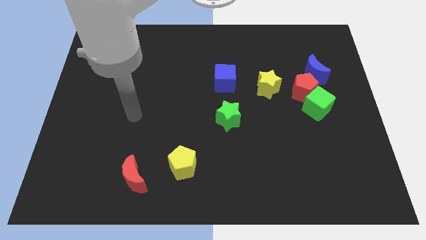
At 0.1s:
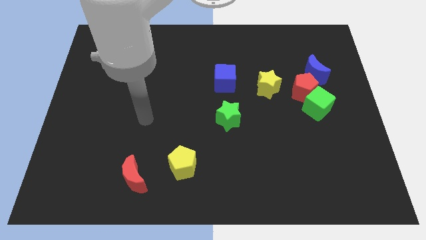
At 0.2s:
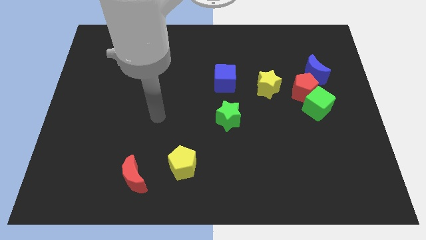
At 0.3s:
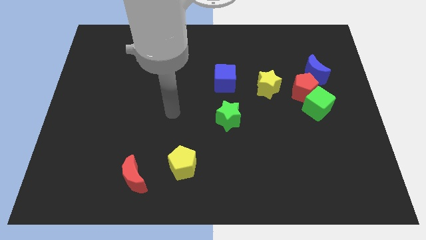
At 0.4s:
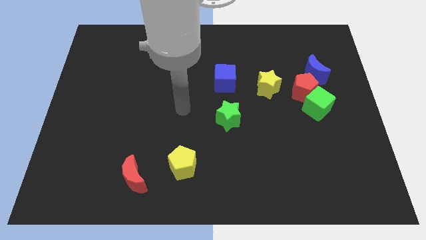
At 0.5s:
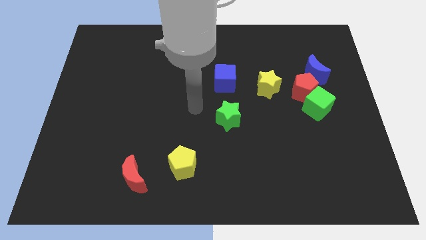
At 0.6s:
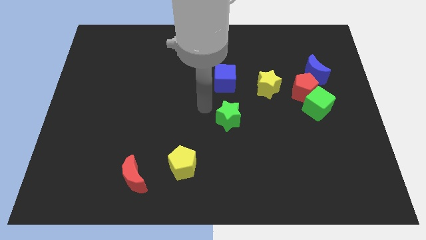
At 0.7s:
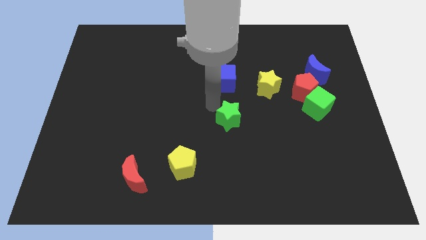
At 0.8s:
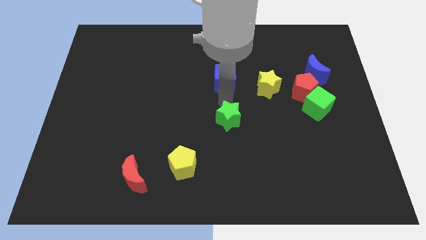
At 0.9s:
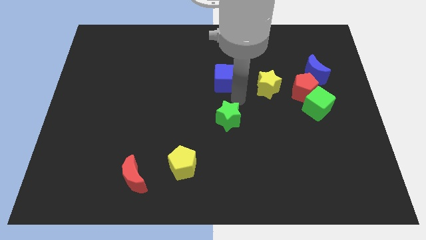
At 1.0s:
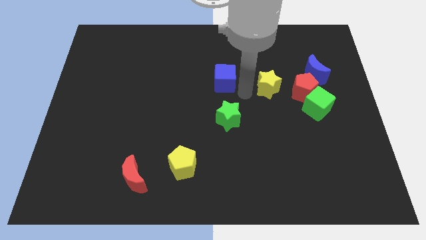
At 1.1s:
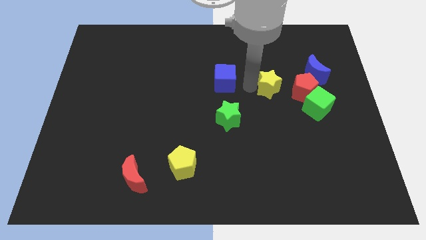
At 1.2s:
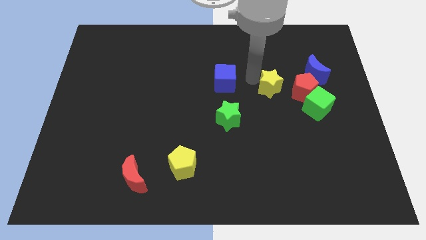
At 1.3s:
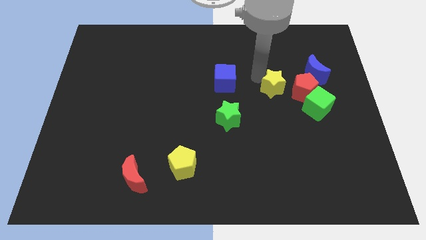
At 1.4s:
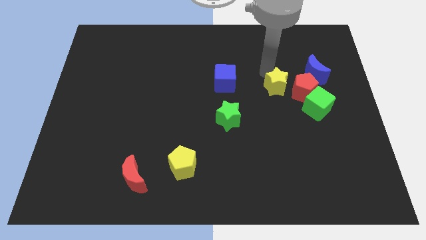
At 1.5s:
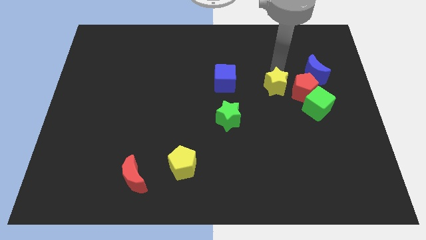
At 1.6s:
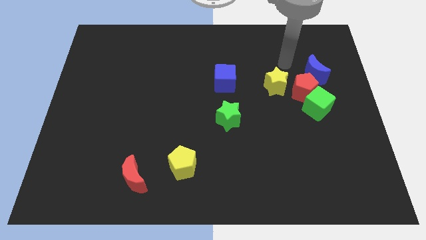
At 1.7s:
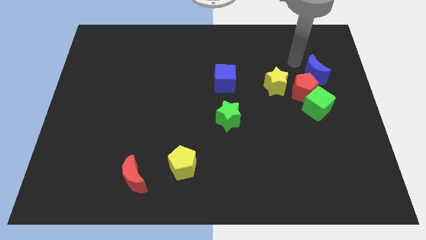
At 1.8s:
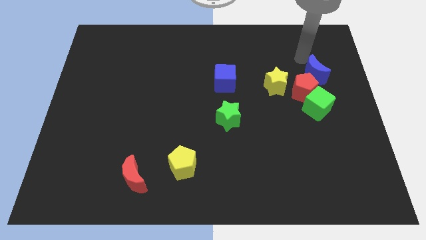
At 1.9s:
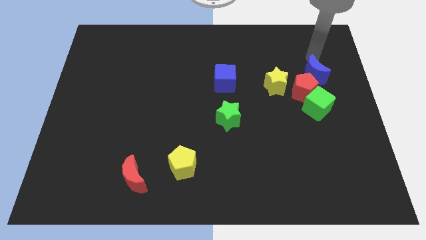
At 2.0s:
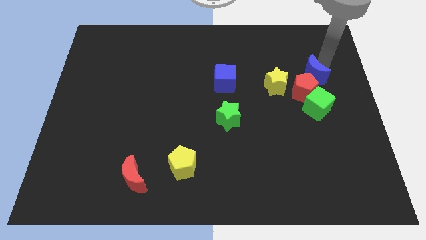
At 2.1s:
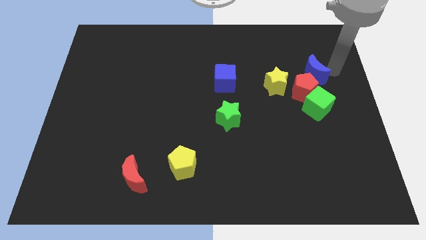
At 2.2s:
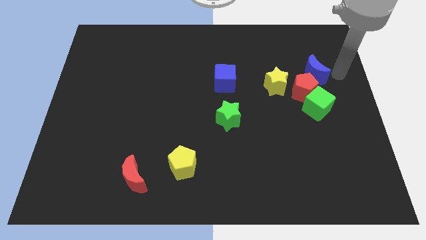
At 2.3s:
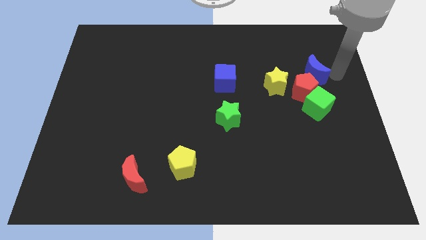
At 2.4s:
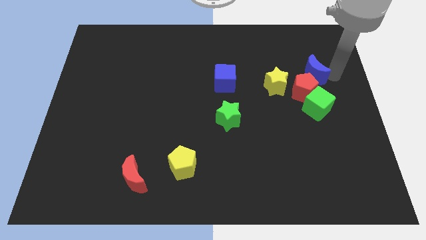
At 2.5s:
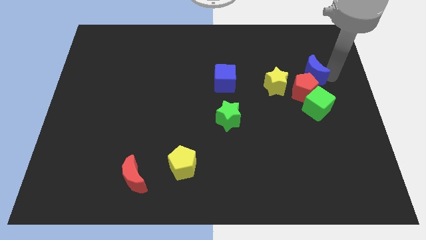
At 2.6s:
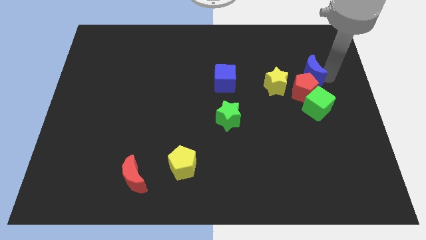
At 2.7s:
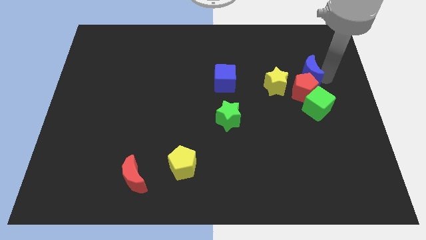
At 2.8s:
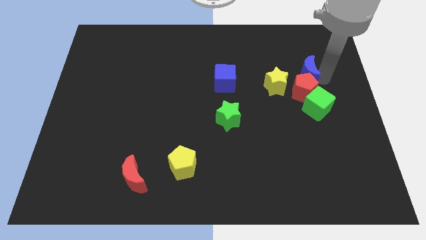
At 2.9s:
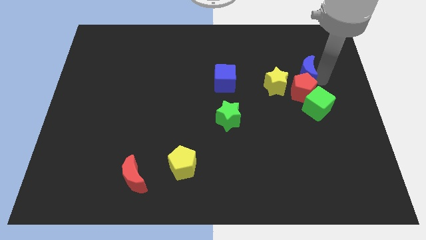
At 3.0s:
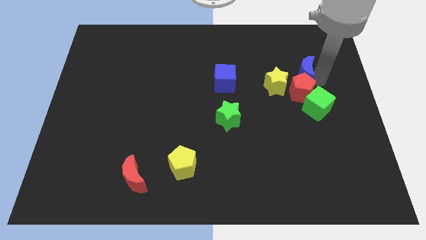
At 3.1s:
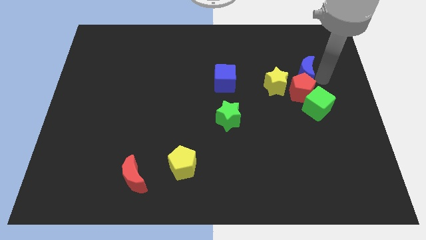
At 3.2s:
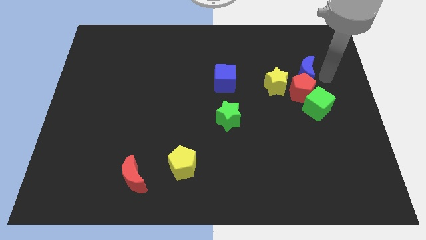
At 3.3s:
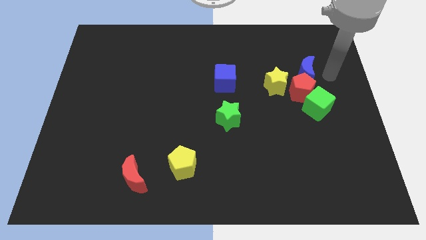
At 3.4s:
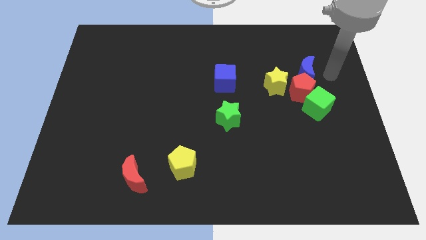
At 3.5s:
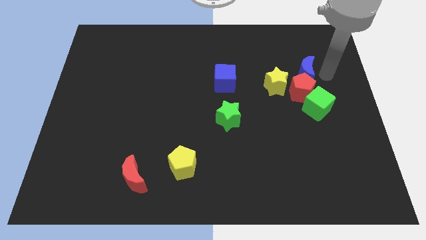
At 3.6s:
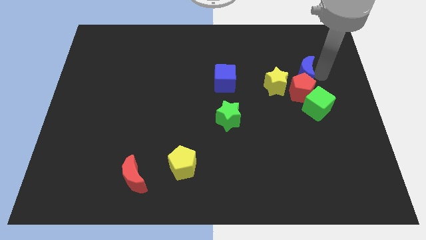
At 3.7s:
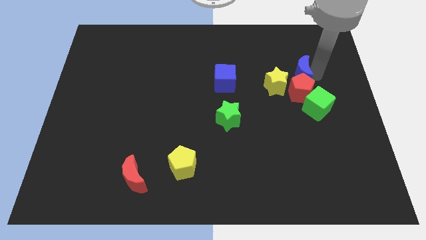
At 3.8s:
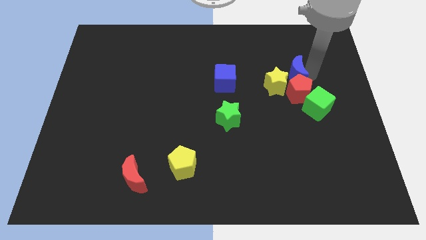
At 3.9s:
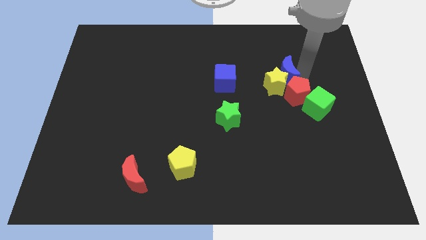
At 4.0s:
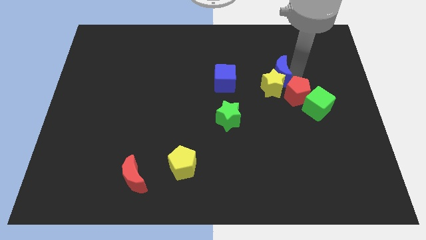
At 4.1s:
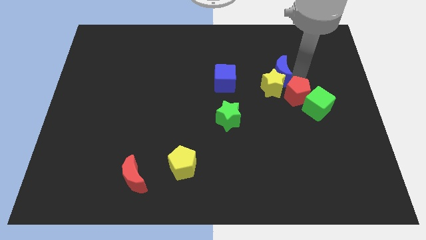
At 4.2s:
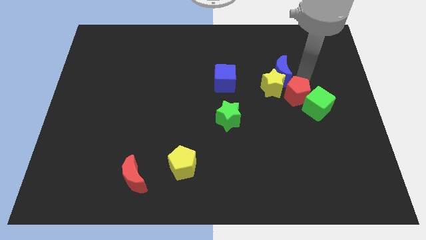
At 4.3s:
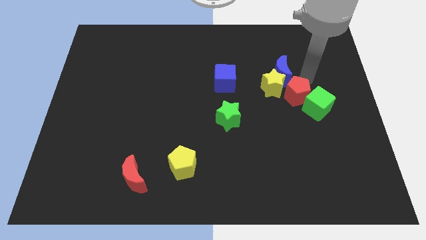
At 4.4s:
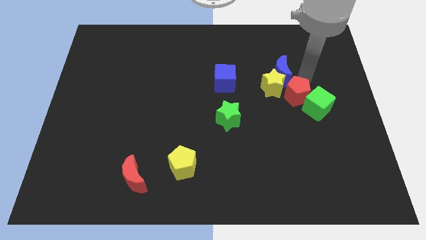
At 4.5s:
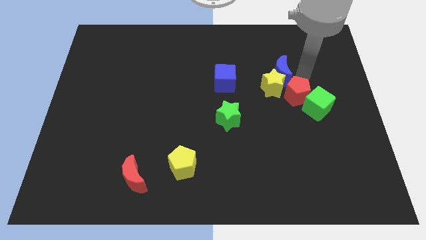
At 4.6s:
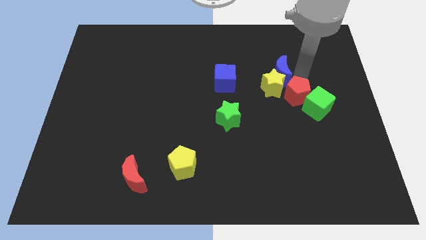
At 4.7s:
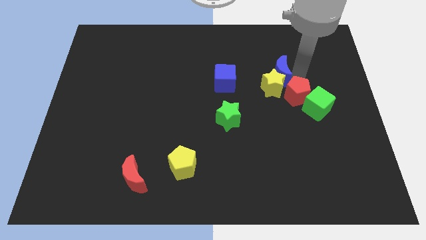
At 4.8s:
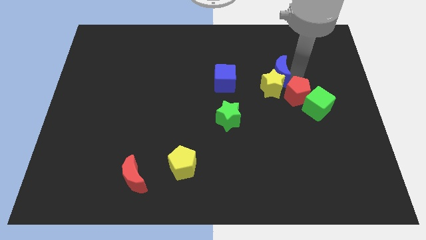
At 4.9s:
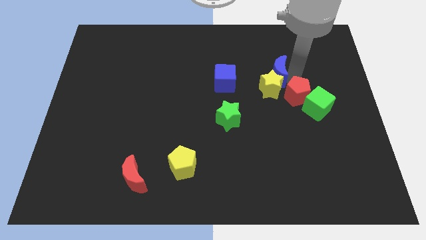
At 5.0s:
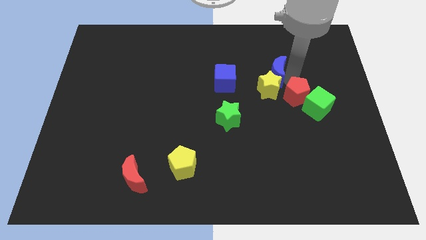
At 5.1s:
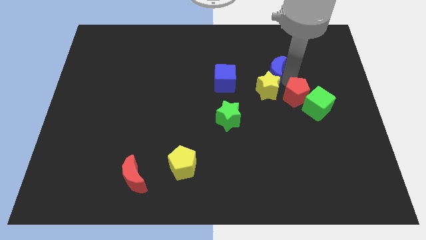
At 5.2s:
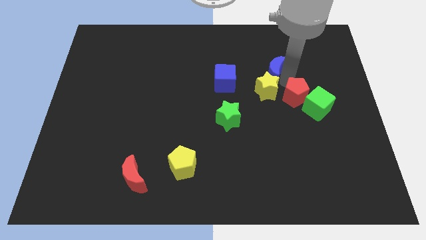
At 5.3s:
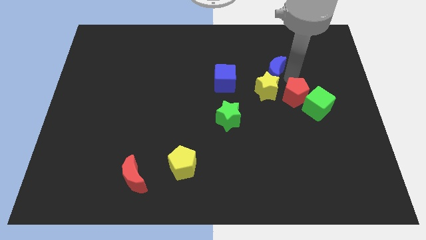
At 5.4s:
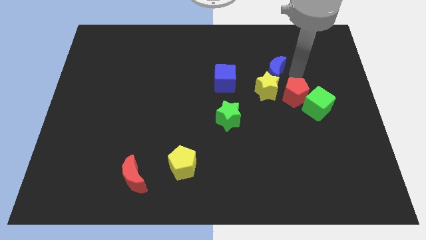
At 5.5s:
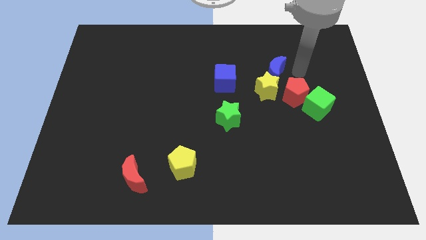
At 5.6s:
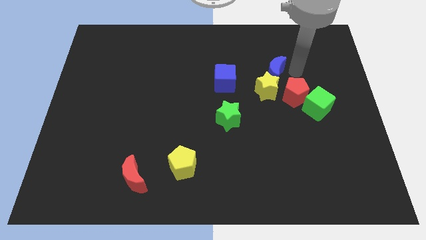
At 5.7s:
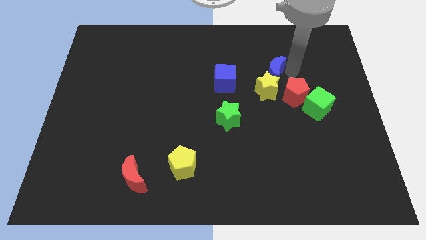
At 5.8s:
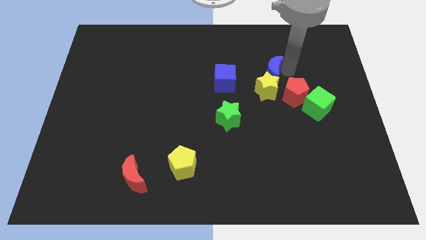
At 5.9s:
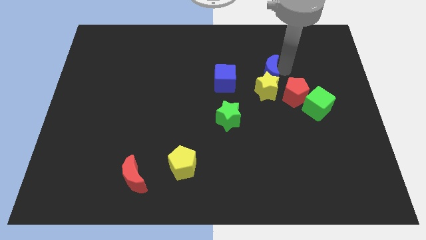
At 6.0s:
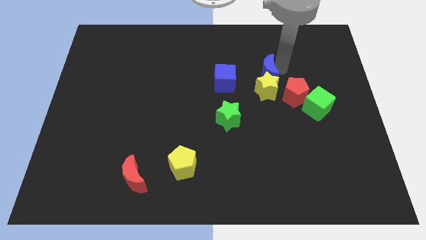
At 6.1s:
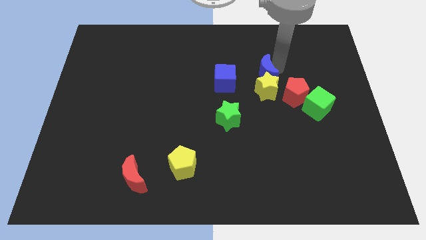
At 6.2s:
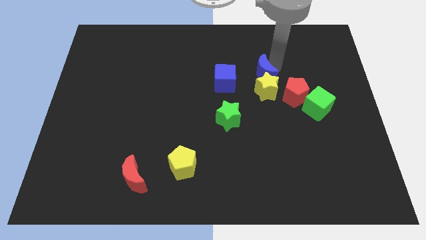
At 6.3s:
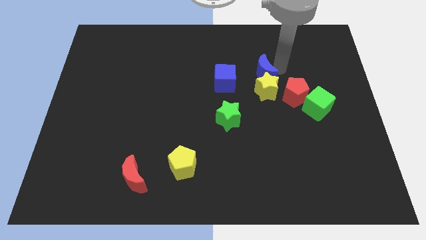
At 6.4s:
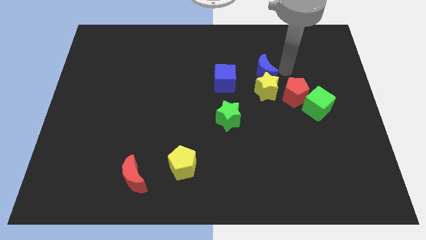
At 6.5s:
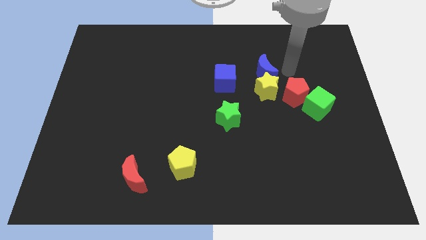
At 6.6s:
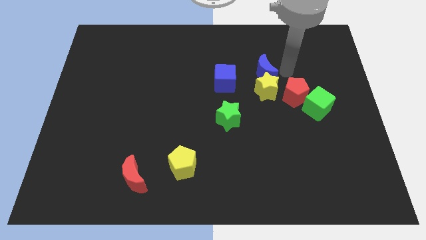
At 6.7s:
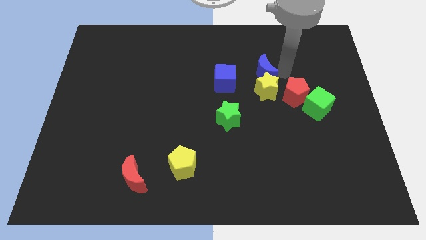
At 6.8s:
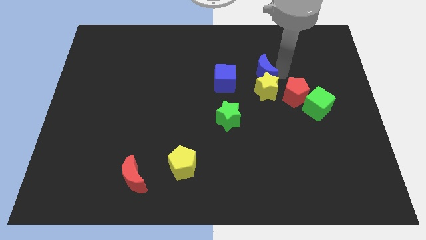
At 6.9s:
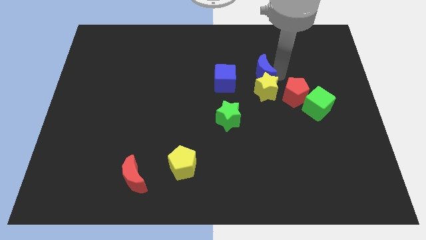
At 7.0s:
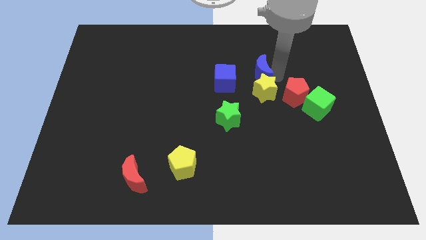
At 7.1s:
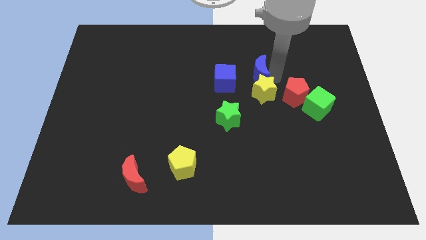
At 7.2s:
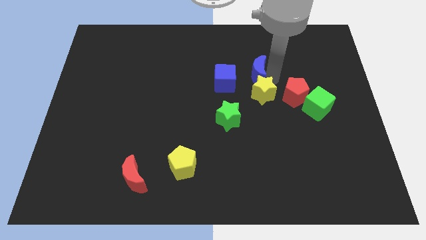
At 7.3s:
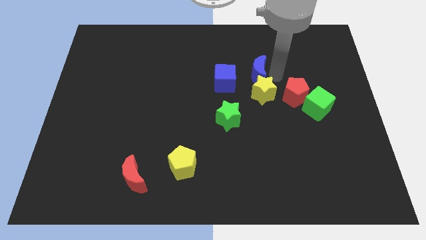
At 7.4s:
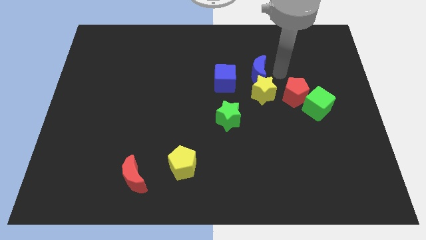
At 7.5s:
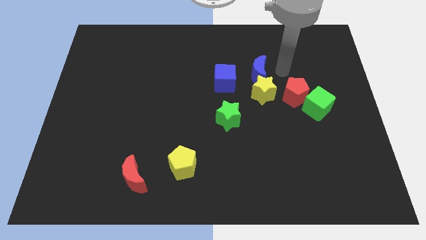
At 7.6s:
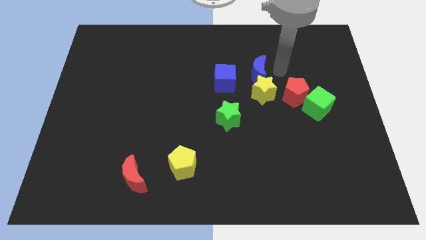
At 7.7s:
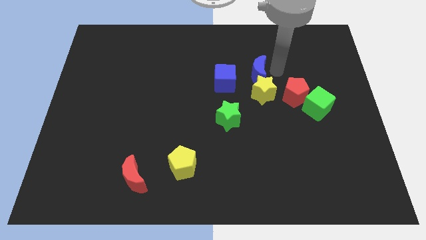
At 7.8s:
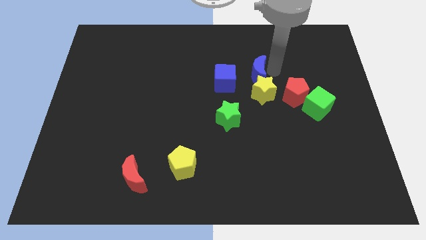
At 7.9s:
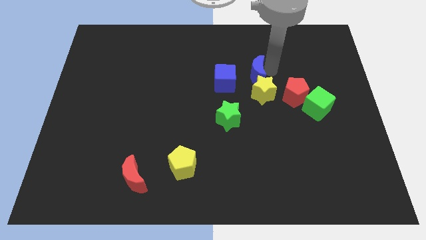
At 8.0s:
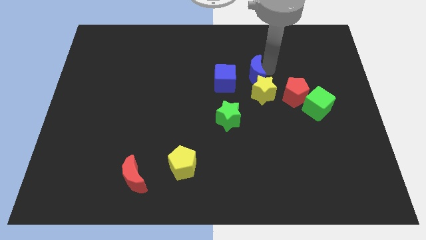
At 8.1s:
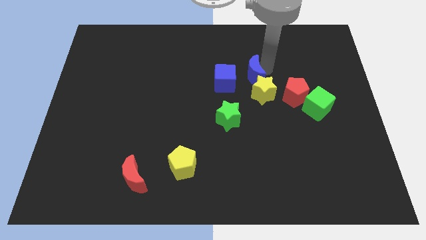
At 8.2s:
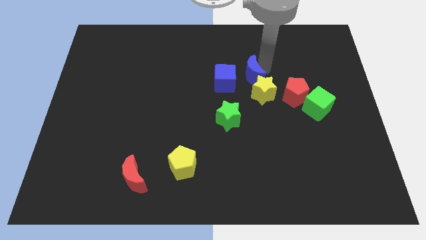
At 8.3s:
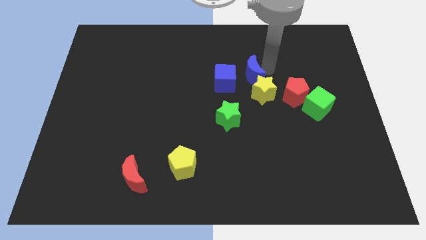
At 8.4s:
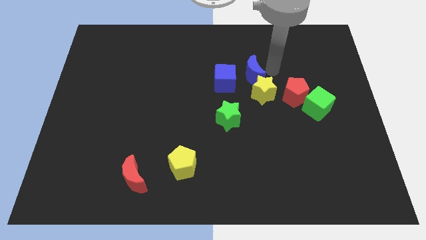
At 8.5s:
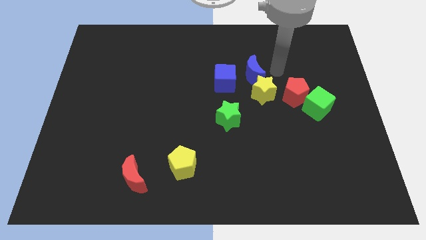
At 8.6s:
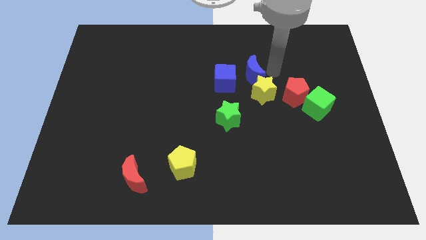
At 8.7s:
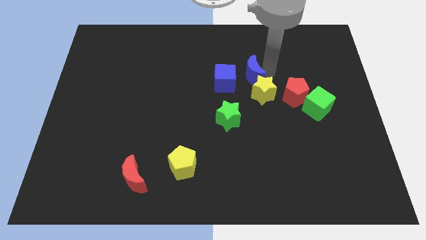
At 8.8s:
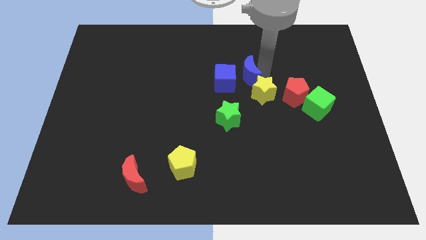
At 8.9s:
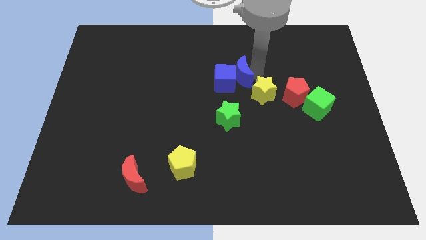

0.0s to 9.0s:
put the blue moon next to the blue cube
